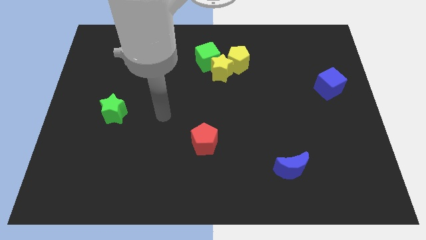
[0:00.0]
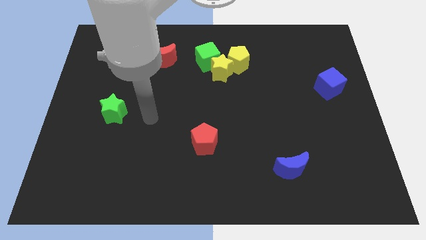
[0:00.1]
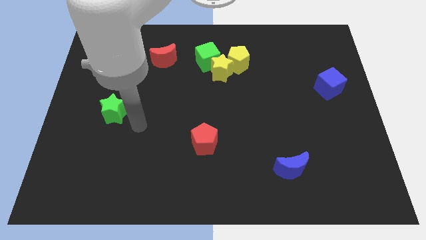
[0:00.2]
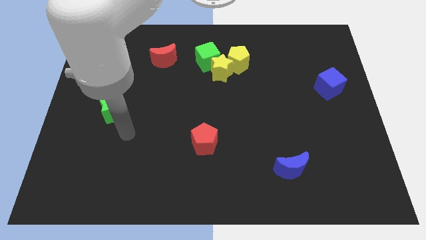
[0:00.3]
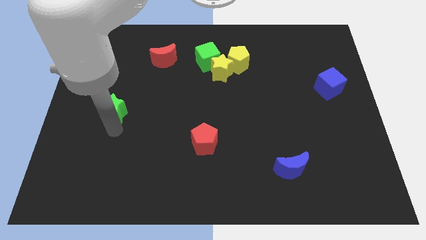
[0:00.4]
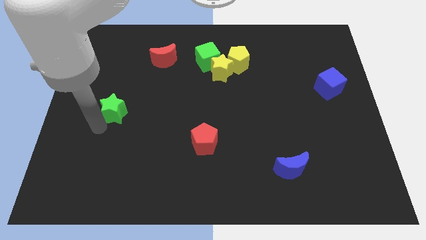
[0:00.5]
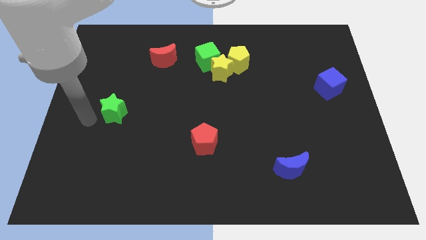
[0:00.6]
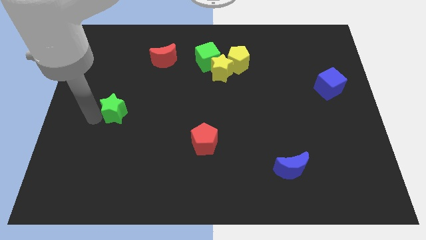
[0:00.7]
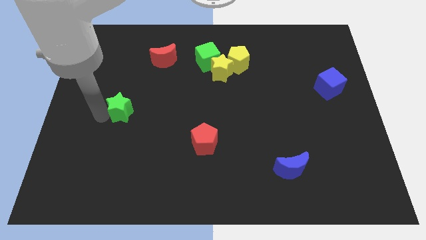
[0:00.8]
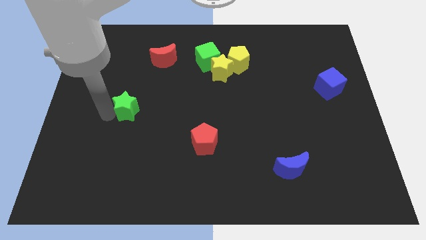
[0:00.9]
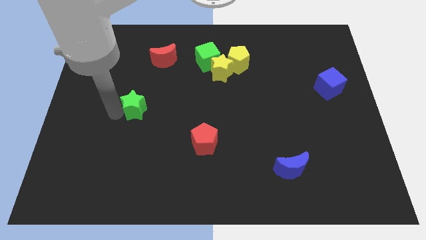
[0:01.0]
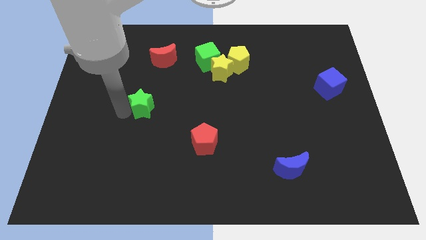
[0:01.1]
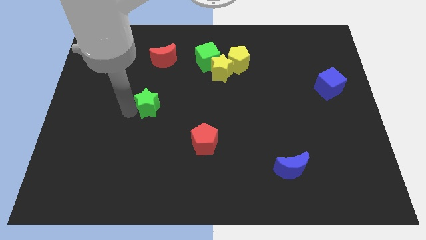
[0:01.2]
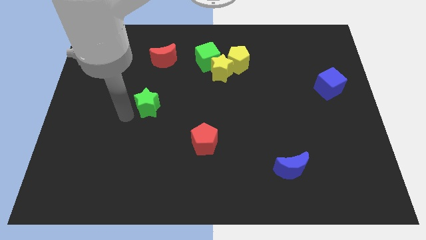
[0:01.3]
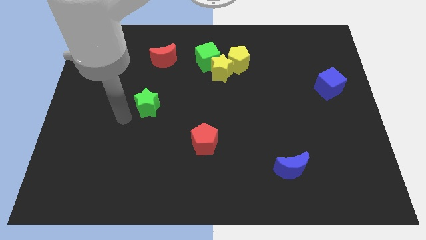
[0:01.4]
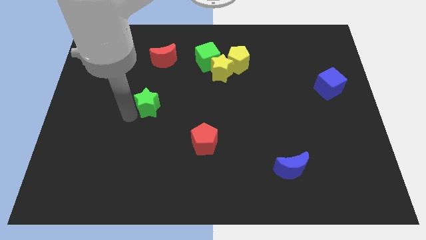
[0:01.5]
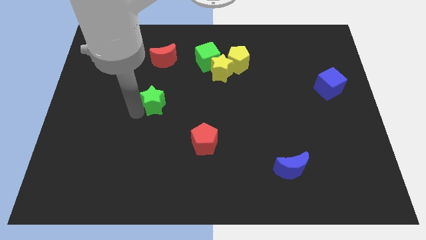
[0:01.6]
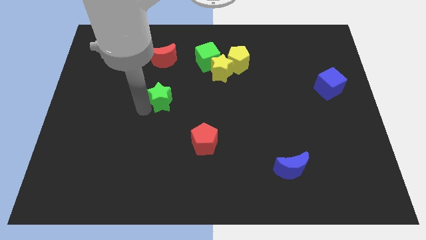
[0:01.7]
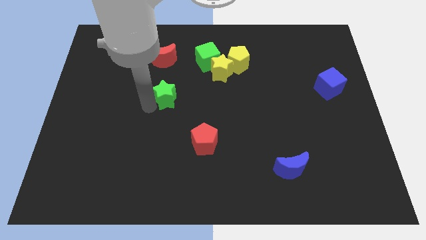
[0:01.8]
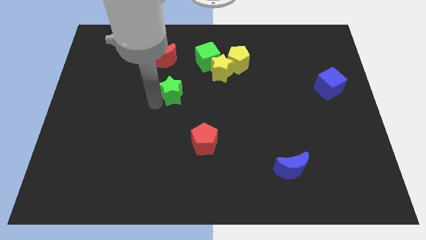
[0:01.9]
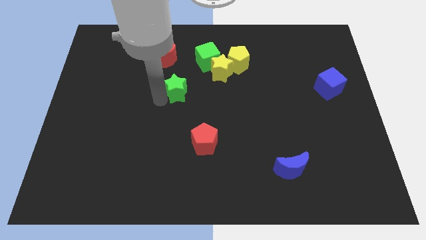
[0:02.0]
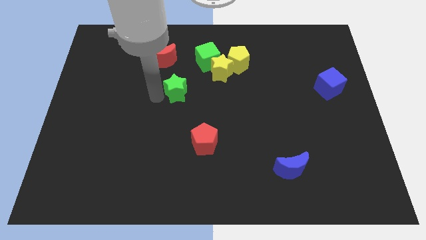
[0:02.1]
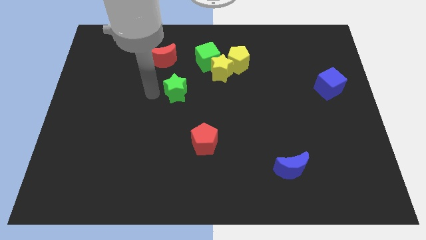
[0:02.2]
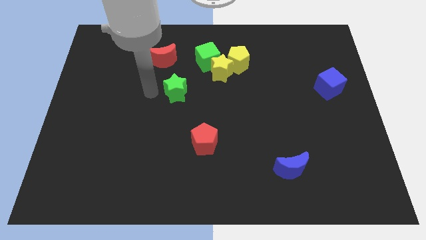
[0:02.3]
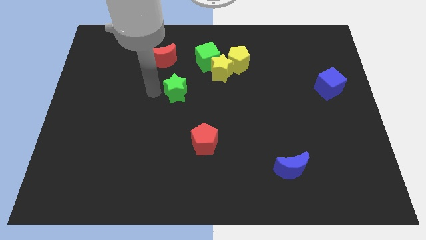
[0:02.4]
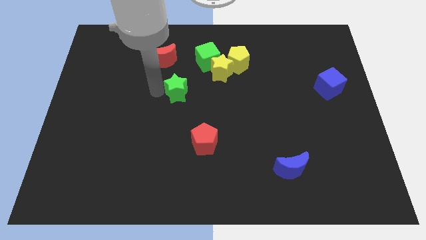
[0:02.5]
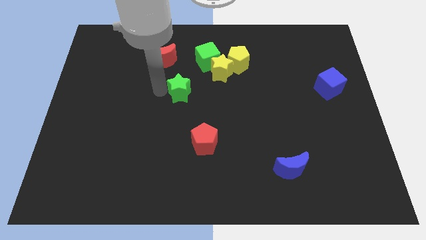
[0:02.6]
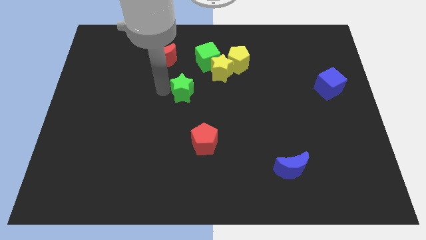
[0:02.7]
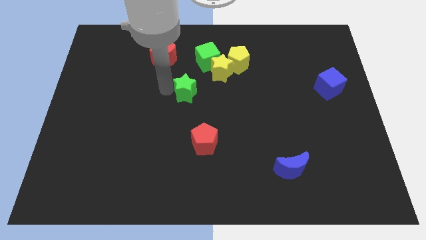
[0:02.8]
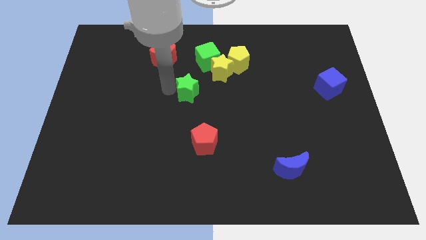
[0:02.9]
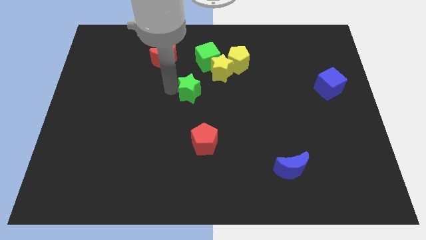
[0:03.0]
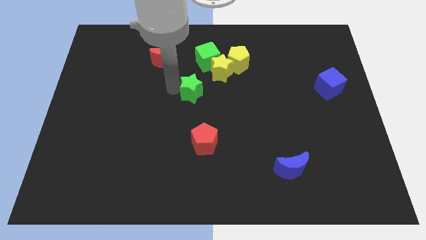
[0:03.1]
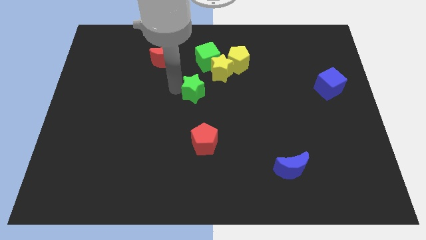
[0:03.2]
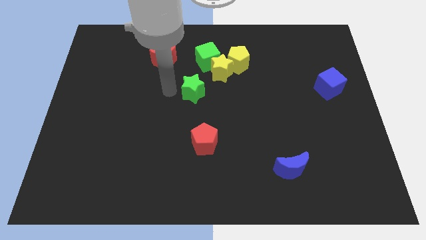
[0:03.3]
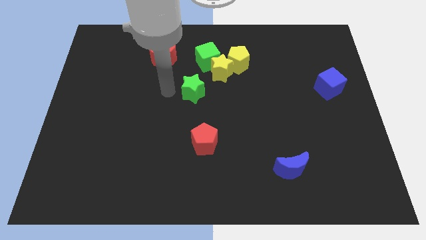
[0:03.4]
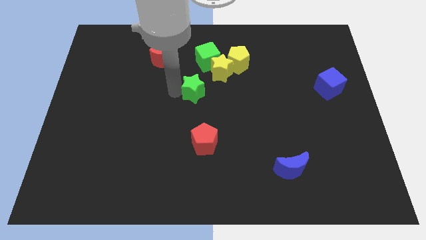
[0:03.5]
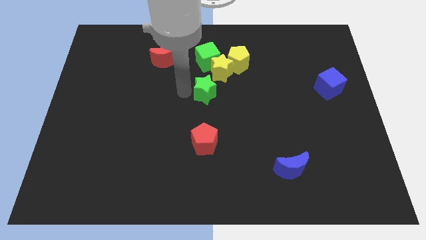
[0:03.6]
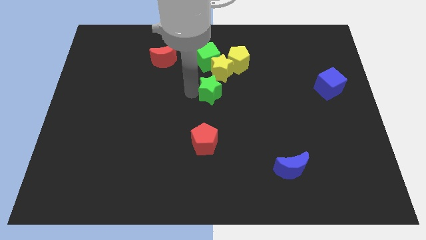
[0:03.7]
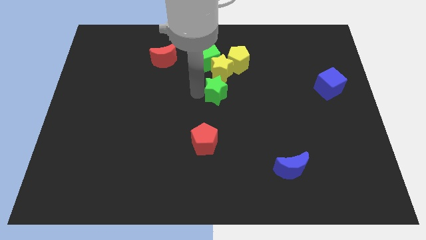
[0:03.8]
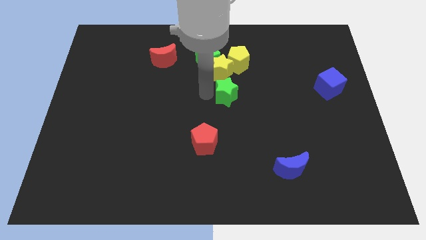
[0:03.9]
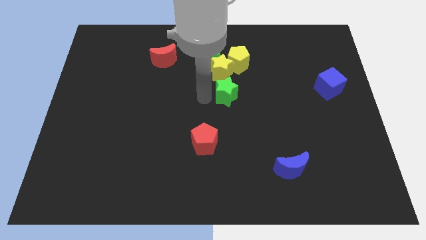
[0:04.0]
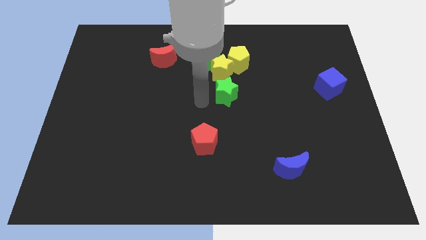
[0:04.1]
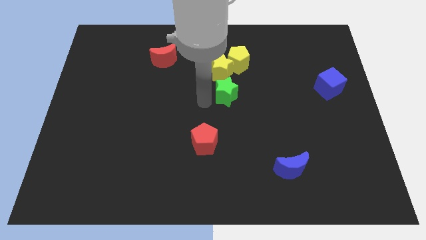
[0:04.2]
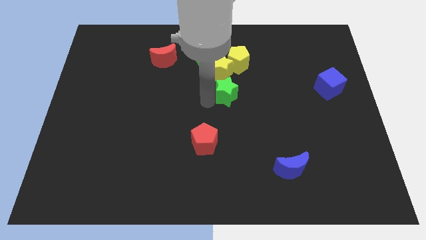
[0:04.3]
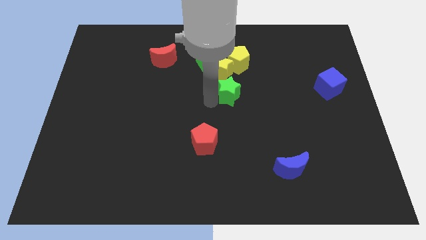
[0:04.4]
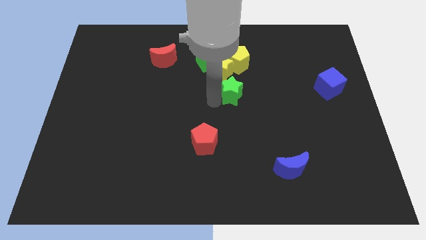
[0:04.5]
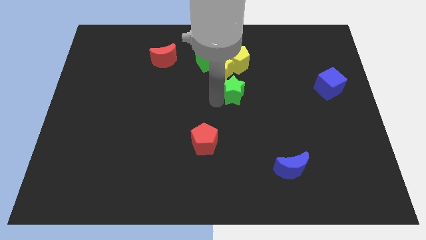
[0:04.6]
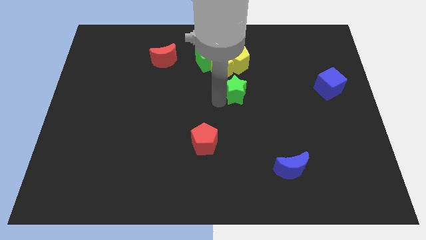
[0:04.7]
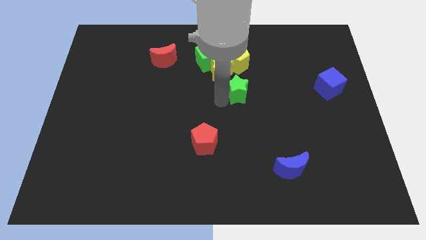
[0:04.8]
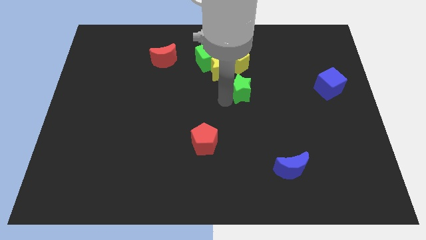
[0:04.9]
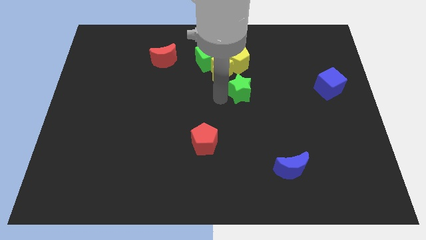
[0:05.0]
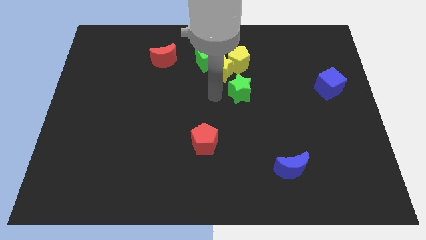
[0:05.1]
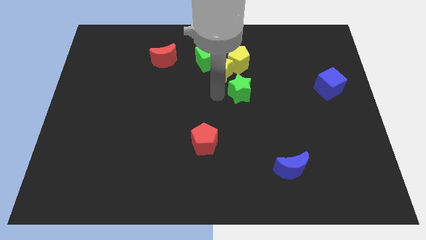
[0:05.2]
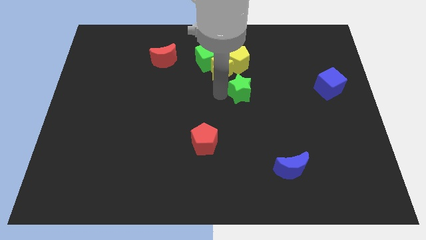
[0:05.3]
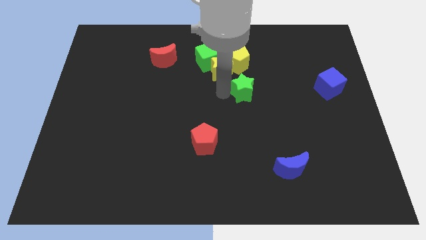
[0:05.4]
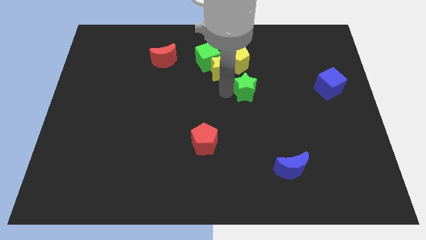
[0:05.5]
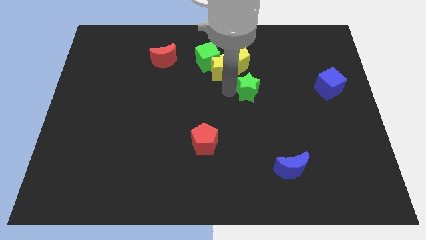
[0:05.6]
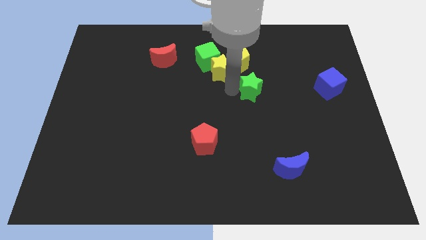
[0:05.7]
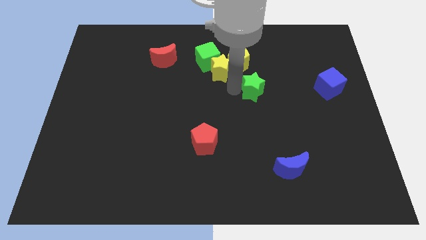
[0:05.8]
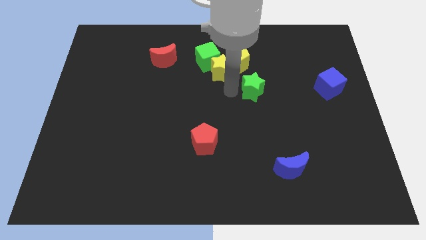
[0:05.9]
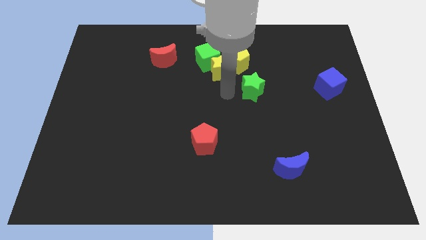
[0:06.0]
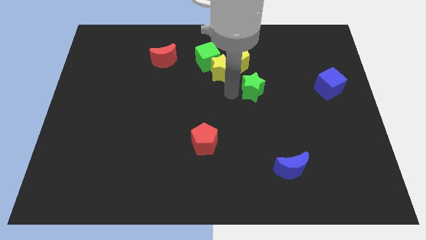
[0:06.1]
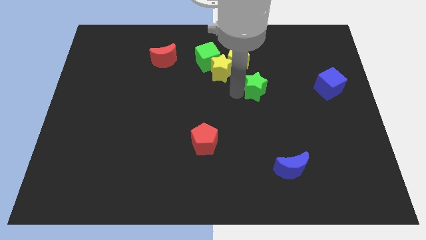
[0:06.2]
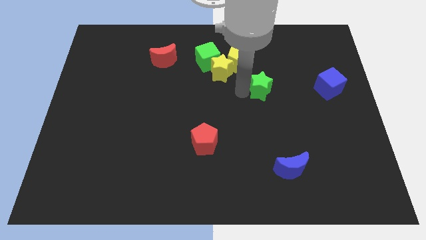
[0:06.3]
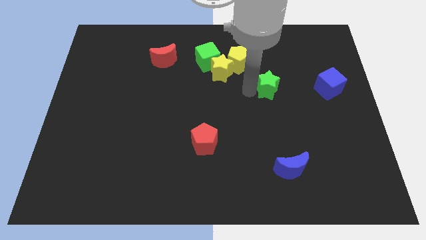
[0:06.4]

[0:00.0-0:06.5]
put the green star just left of the blue cube

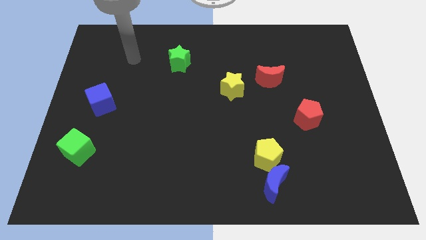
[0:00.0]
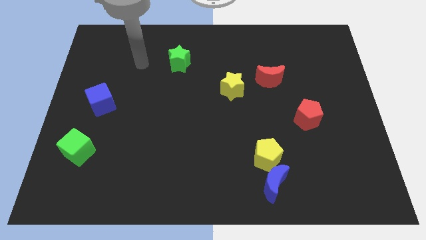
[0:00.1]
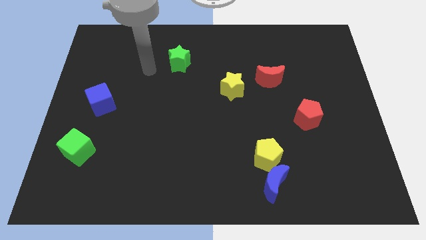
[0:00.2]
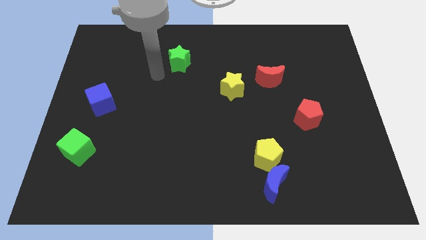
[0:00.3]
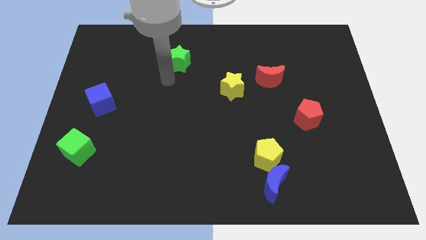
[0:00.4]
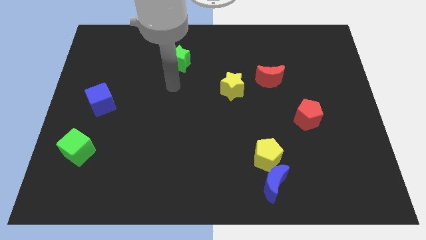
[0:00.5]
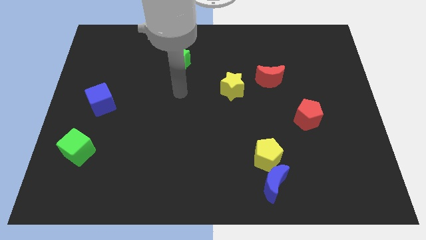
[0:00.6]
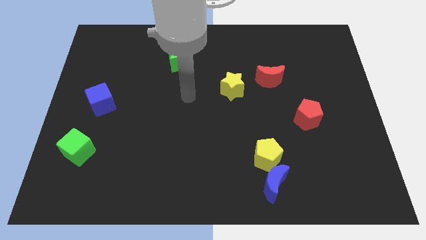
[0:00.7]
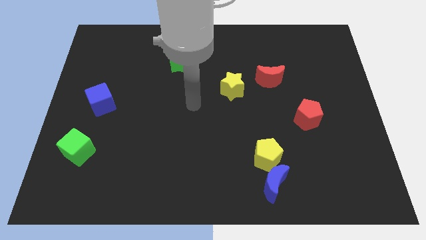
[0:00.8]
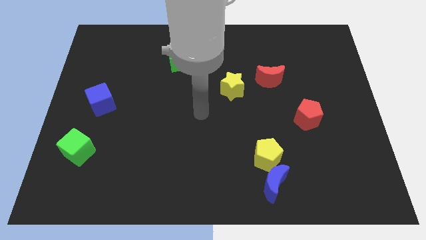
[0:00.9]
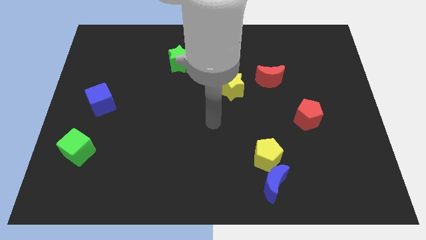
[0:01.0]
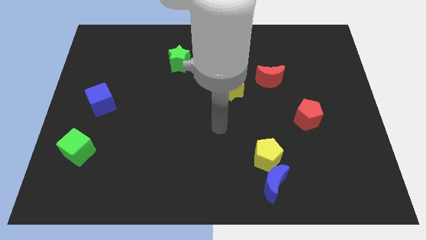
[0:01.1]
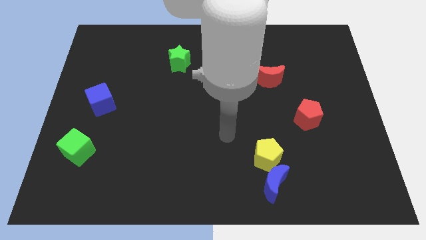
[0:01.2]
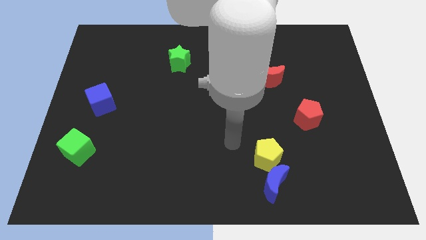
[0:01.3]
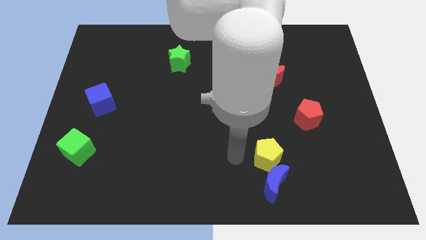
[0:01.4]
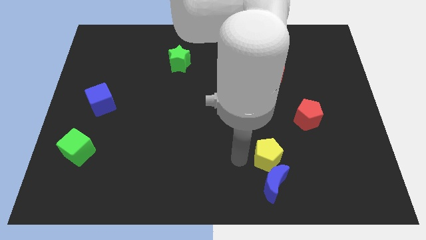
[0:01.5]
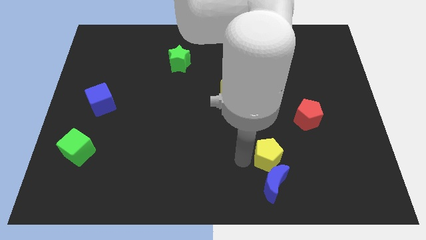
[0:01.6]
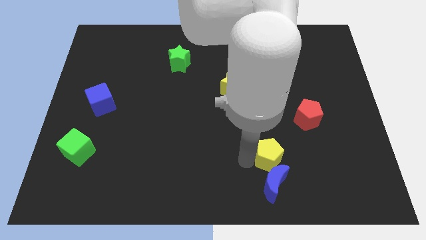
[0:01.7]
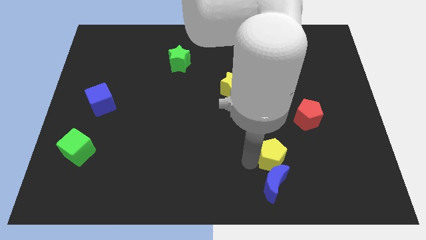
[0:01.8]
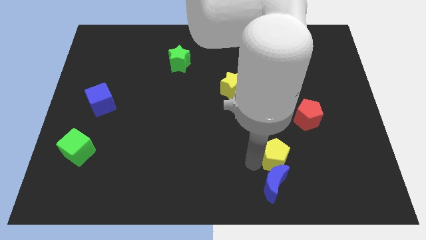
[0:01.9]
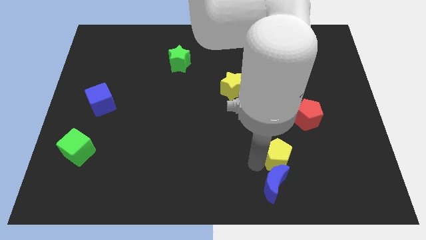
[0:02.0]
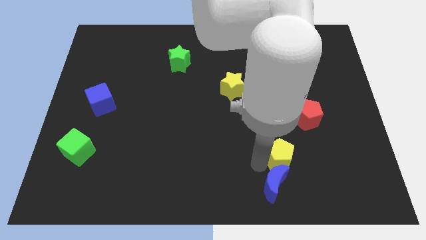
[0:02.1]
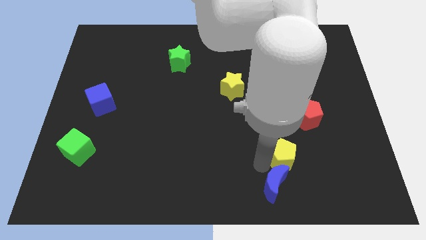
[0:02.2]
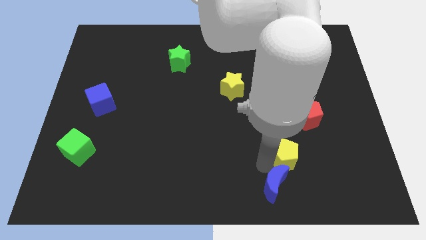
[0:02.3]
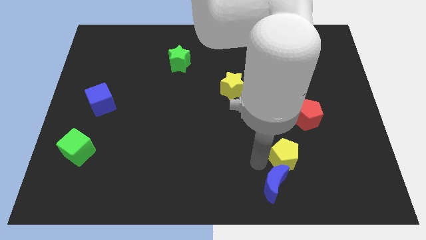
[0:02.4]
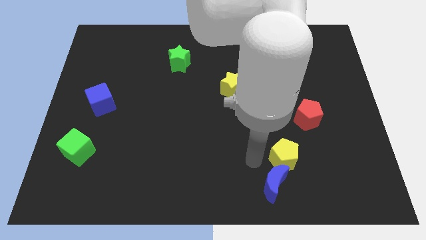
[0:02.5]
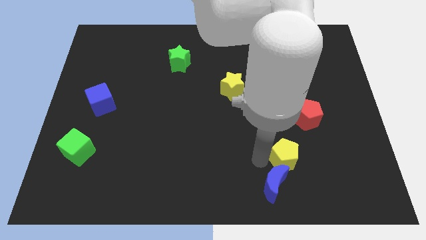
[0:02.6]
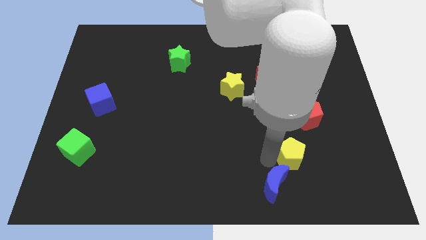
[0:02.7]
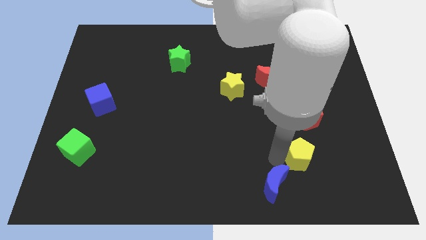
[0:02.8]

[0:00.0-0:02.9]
slide the yellow pentagon to the bottom side of the red pentagon
